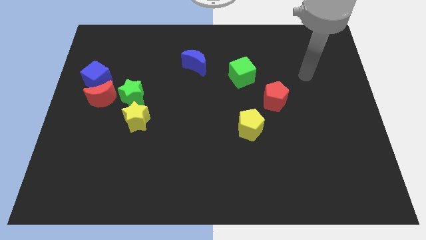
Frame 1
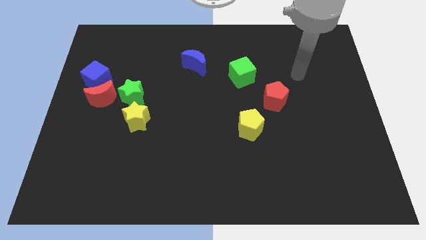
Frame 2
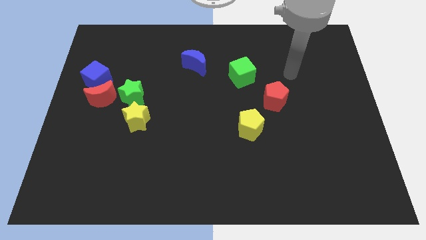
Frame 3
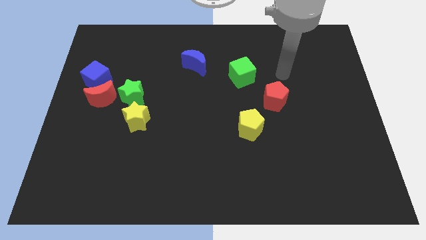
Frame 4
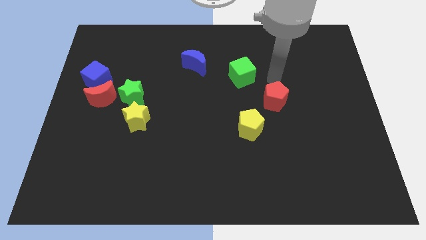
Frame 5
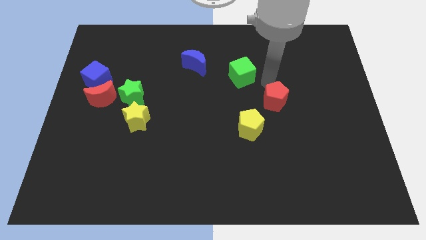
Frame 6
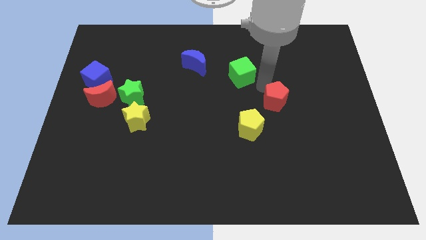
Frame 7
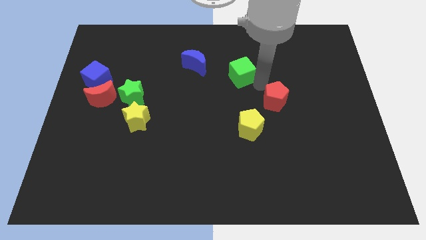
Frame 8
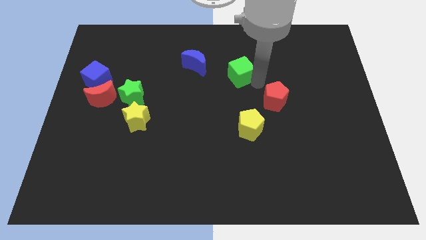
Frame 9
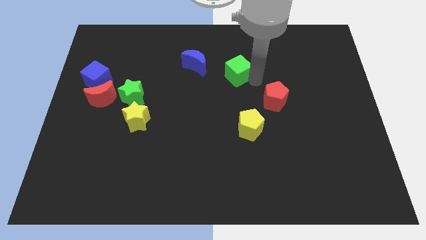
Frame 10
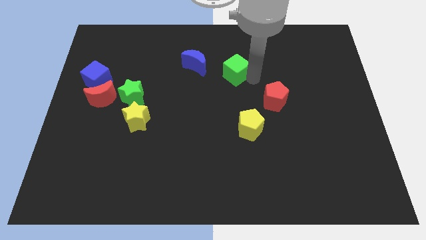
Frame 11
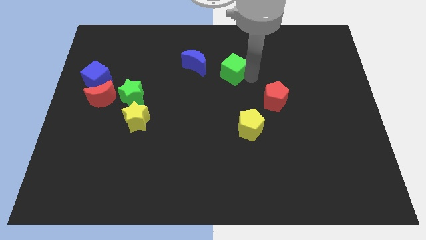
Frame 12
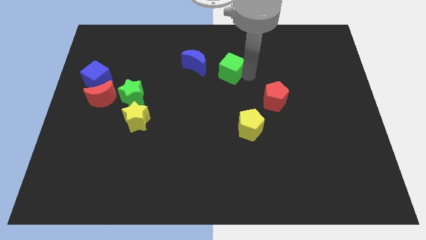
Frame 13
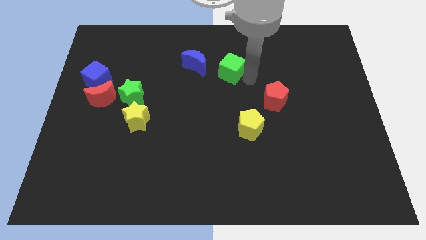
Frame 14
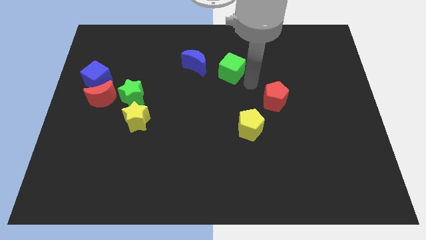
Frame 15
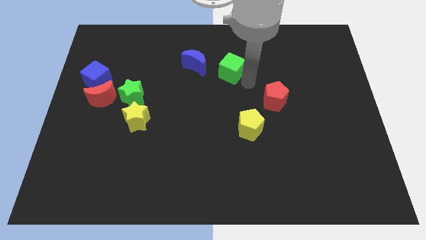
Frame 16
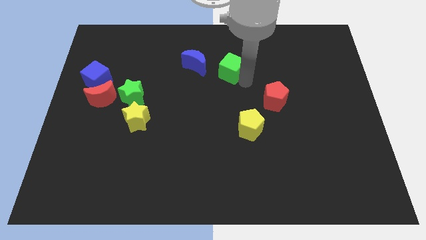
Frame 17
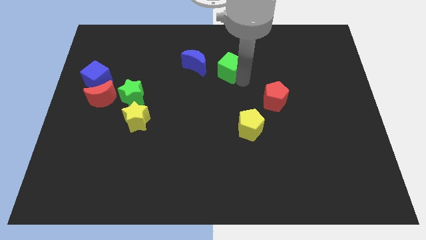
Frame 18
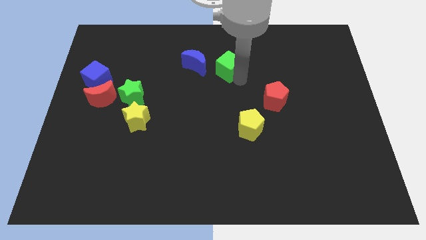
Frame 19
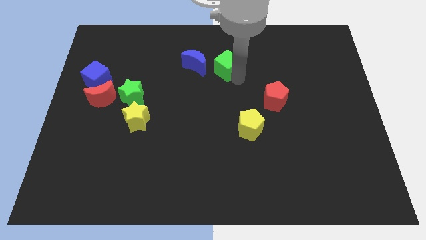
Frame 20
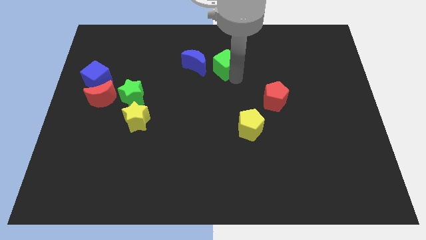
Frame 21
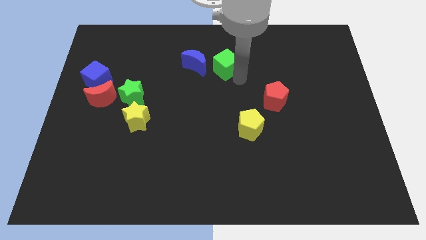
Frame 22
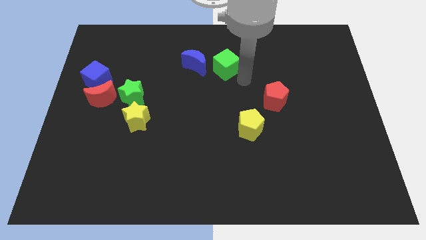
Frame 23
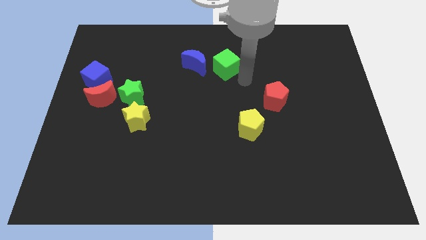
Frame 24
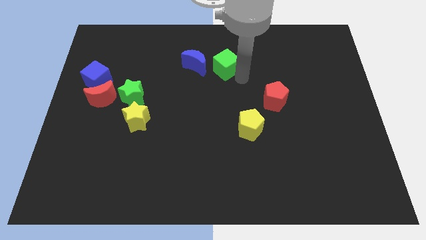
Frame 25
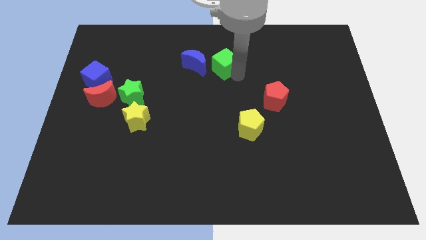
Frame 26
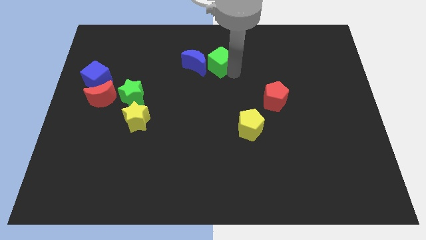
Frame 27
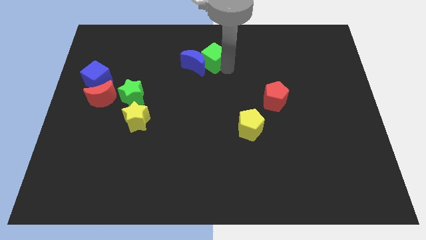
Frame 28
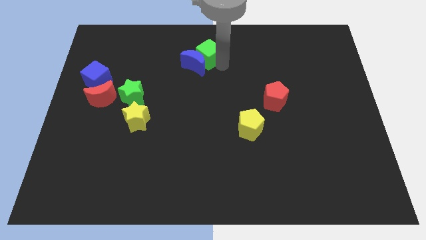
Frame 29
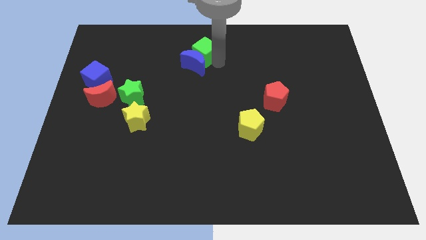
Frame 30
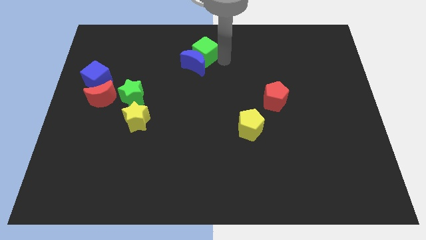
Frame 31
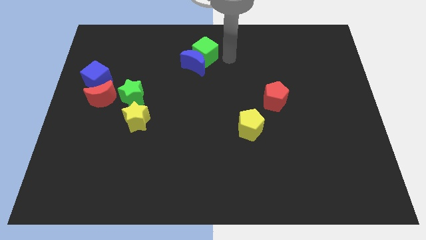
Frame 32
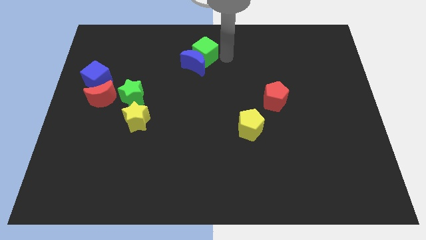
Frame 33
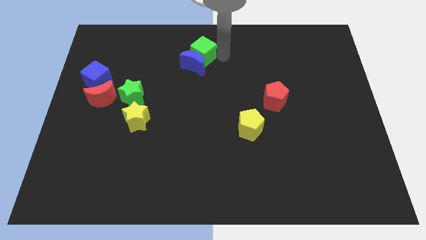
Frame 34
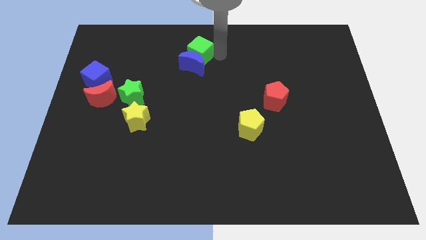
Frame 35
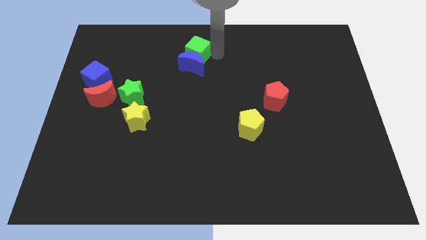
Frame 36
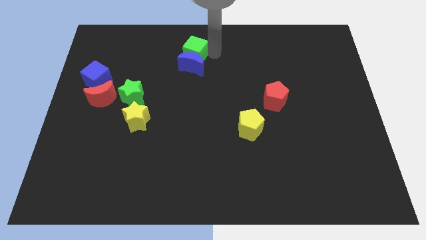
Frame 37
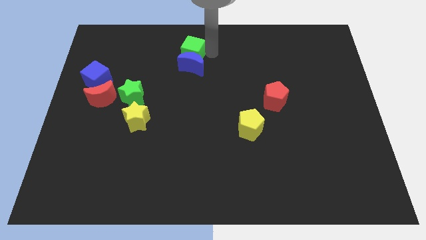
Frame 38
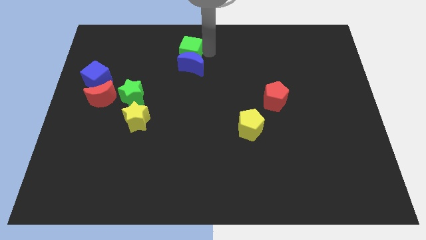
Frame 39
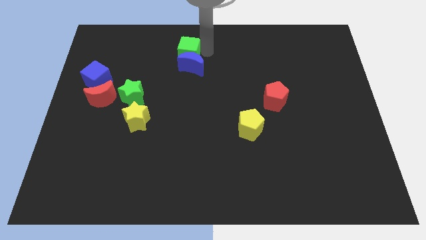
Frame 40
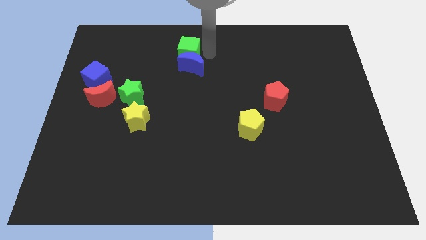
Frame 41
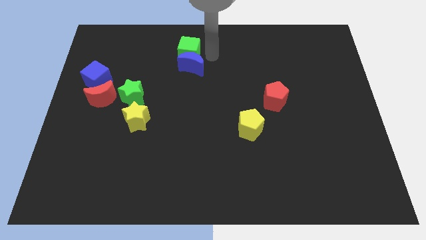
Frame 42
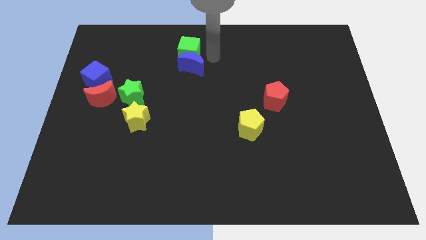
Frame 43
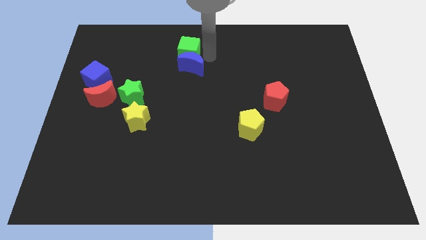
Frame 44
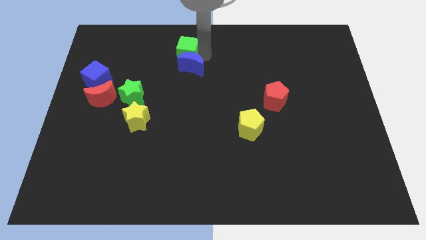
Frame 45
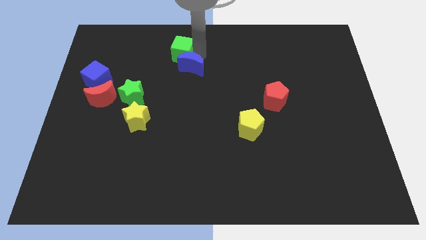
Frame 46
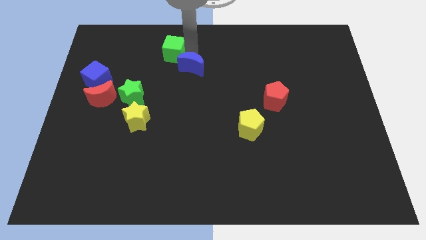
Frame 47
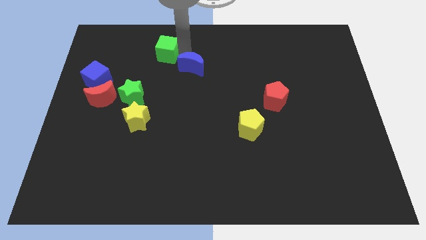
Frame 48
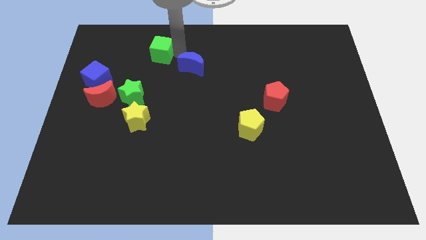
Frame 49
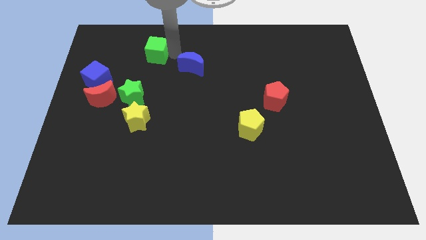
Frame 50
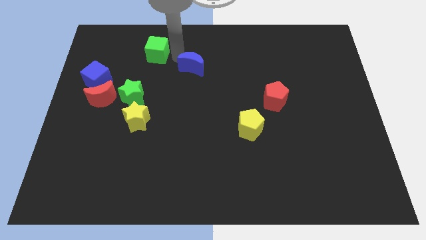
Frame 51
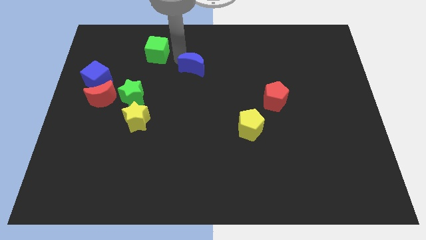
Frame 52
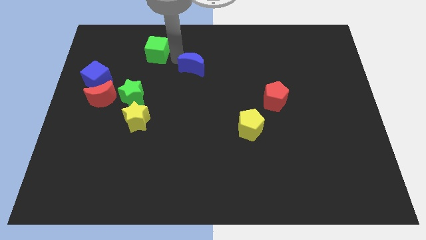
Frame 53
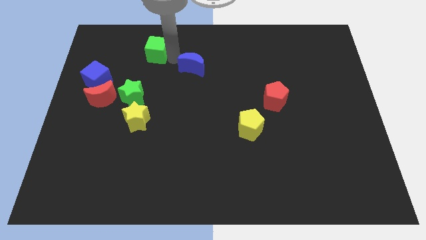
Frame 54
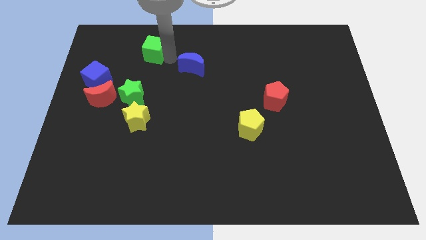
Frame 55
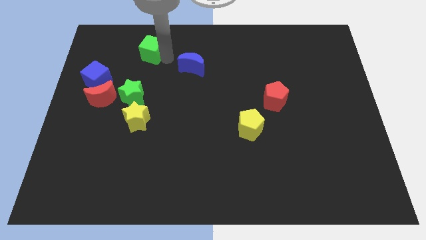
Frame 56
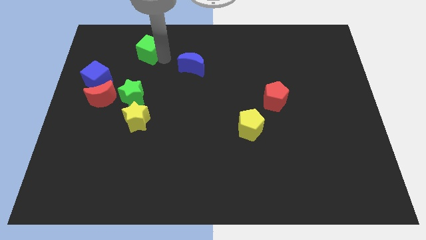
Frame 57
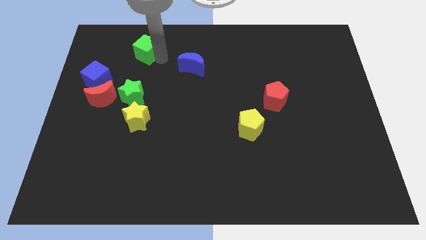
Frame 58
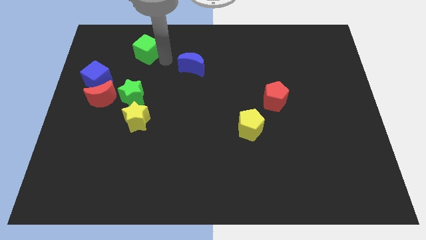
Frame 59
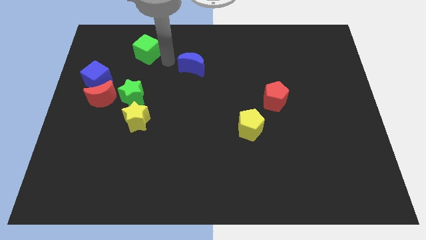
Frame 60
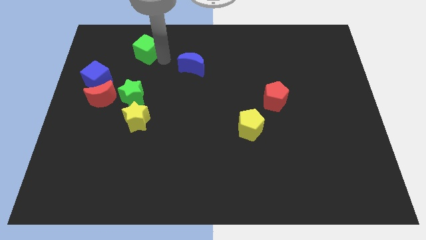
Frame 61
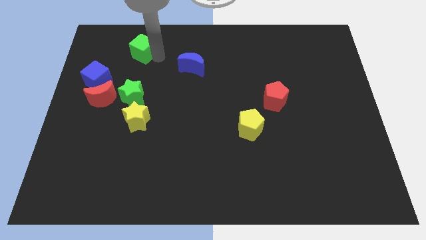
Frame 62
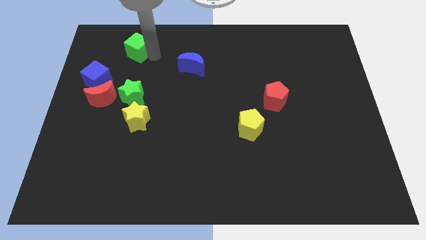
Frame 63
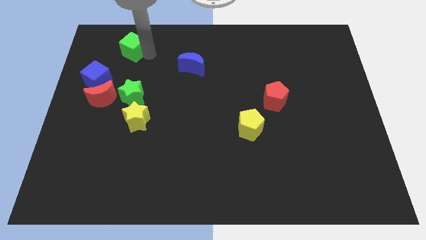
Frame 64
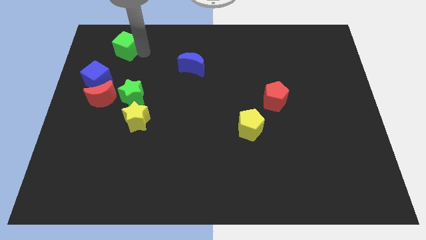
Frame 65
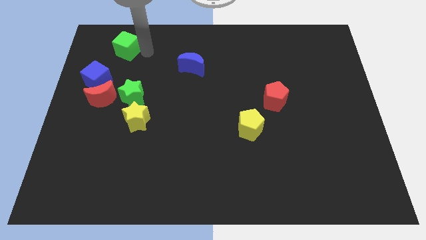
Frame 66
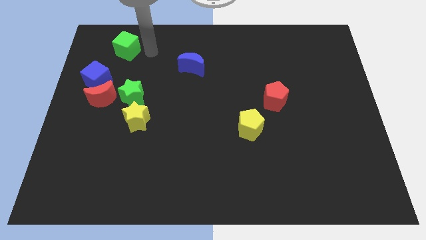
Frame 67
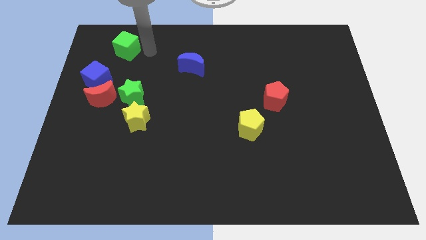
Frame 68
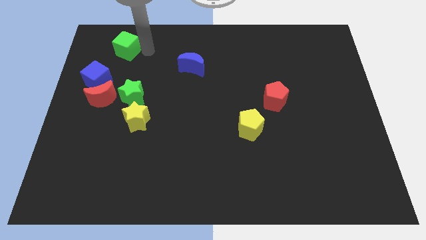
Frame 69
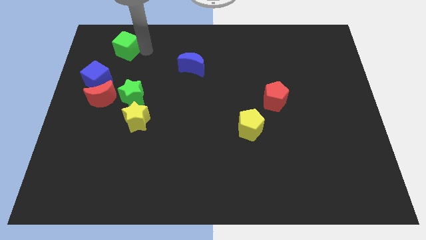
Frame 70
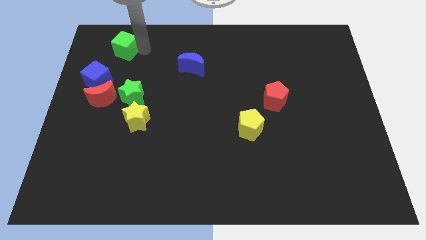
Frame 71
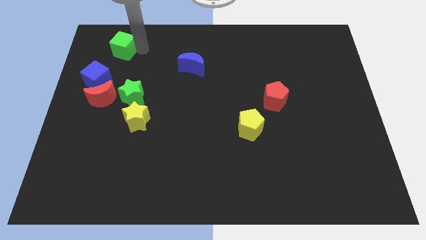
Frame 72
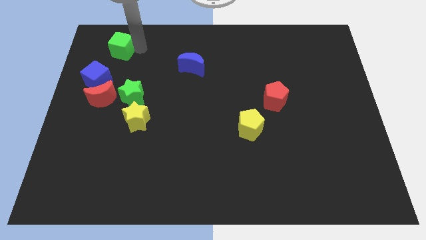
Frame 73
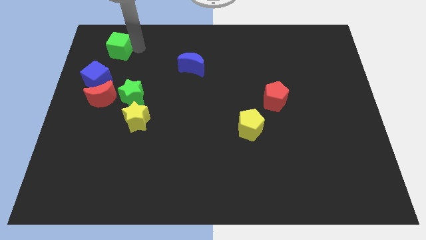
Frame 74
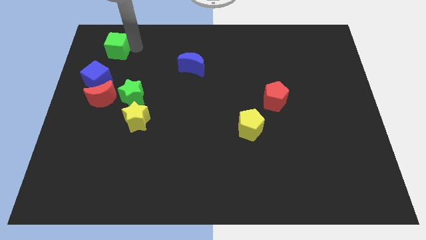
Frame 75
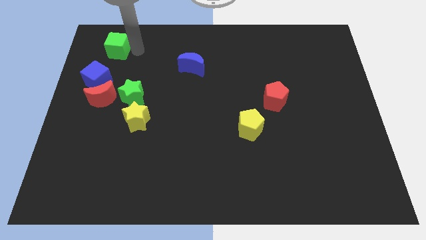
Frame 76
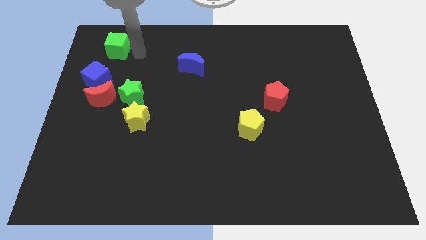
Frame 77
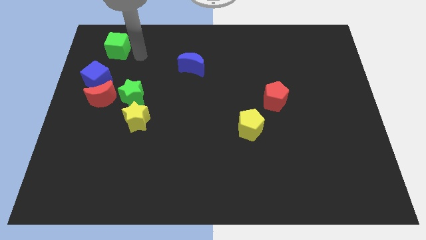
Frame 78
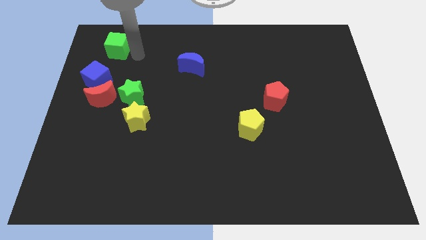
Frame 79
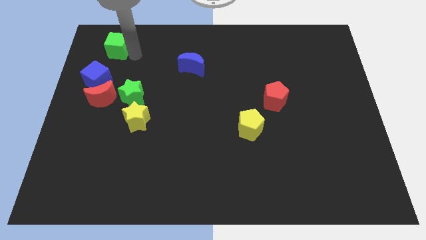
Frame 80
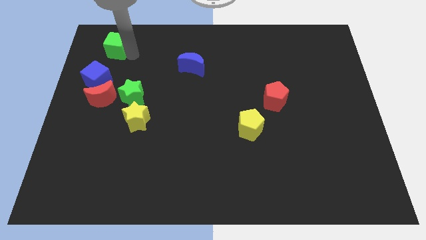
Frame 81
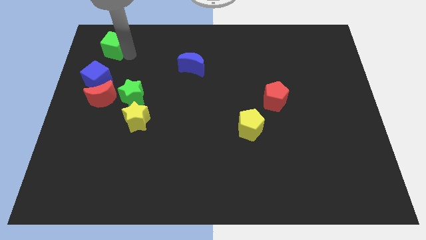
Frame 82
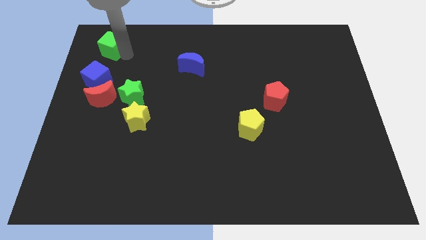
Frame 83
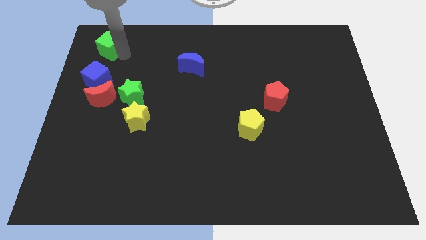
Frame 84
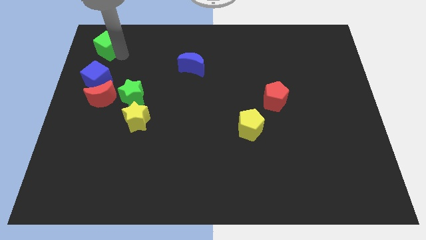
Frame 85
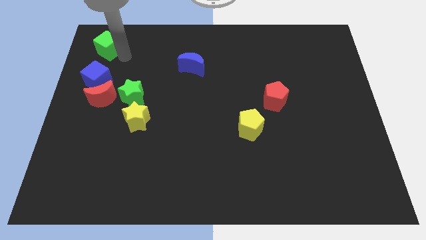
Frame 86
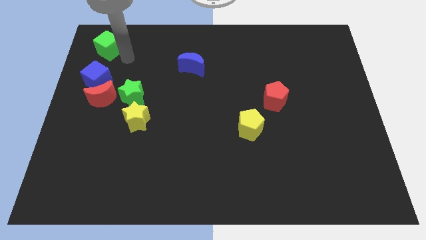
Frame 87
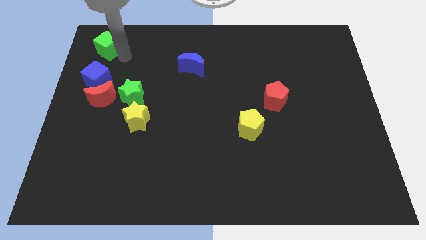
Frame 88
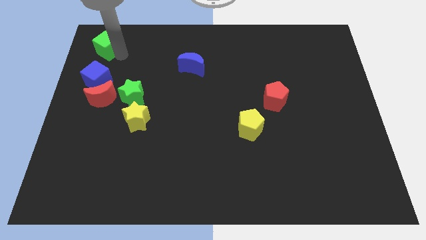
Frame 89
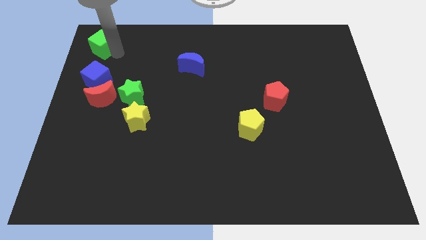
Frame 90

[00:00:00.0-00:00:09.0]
push the green cube to the top left of the board
